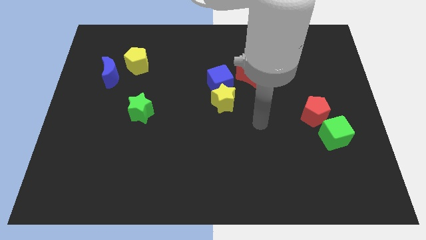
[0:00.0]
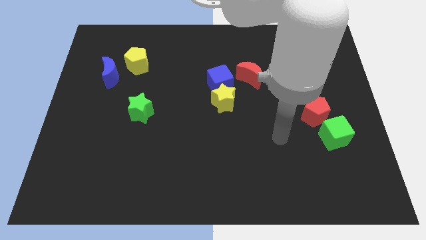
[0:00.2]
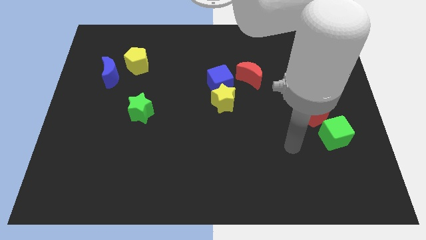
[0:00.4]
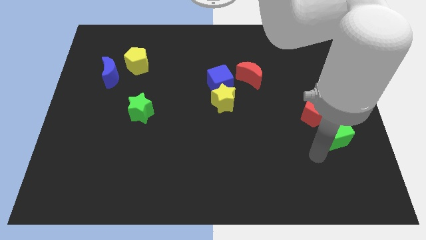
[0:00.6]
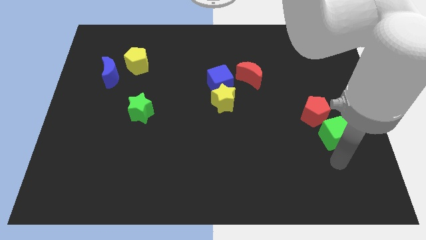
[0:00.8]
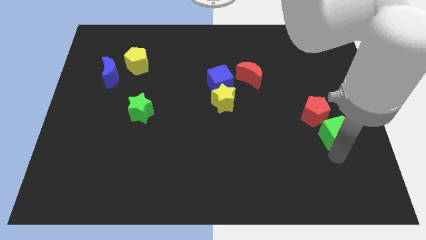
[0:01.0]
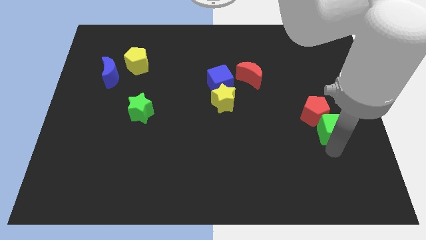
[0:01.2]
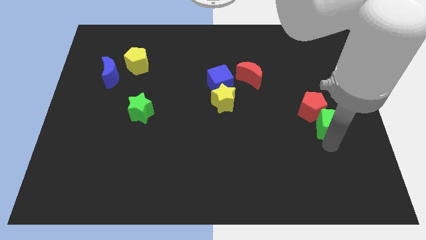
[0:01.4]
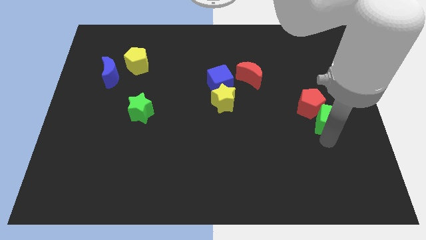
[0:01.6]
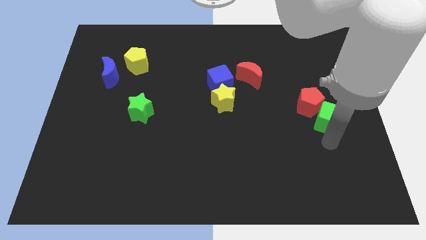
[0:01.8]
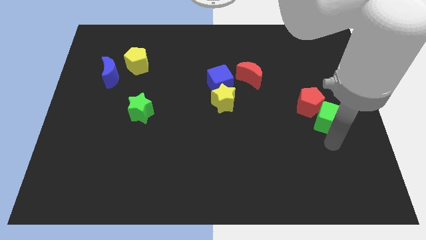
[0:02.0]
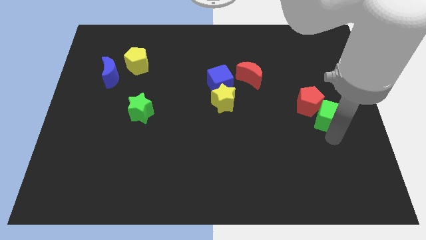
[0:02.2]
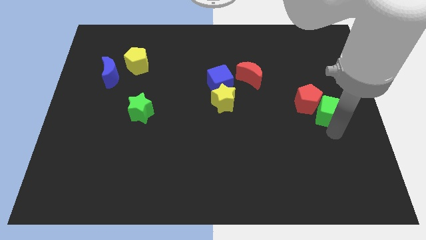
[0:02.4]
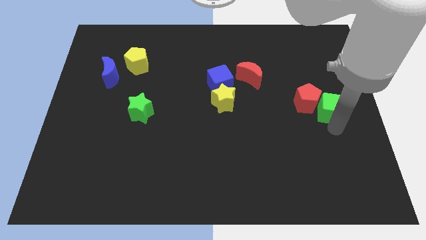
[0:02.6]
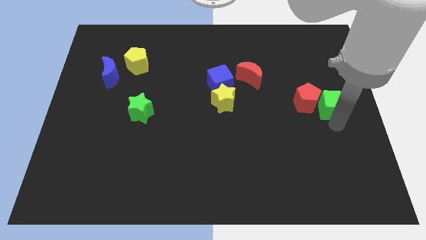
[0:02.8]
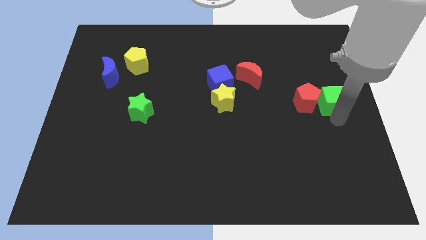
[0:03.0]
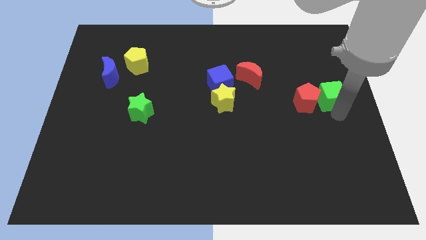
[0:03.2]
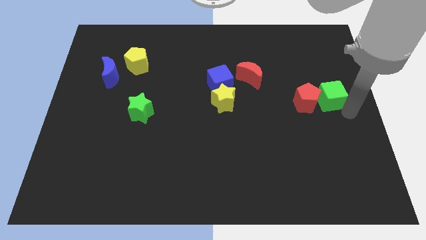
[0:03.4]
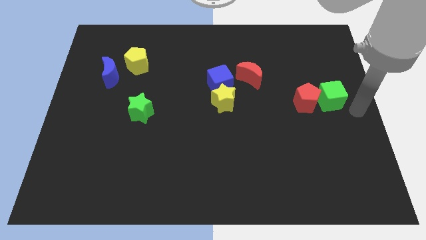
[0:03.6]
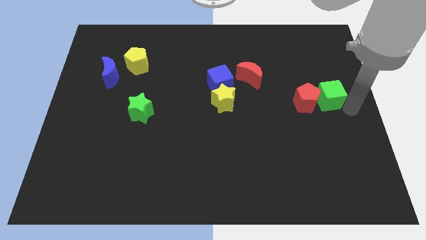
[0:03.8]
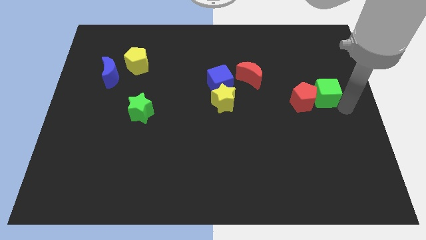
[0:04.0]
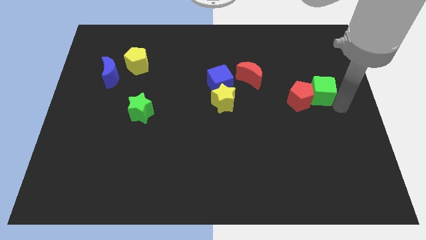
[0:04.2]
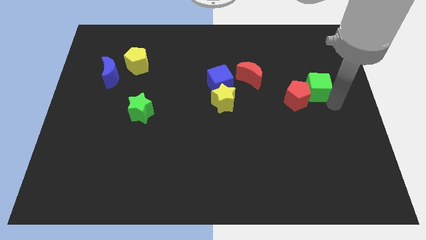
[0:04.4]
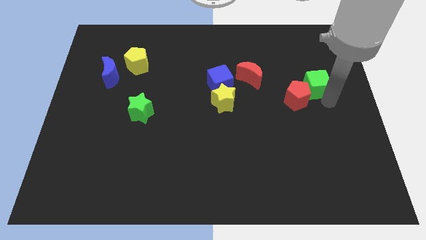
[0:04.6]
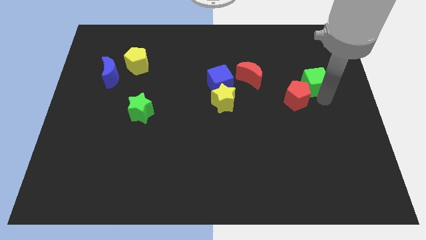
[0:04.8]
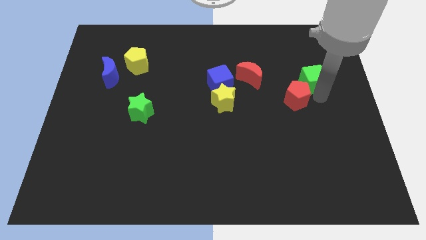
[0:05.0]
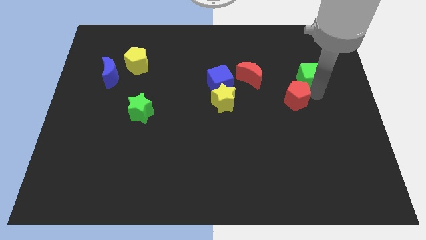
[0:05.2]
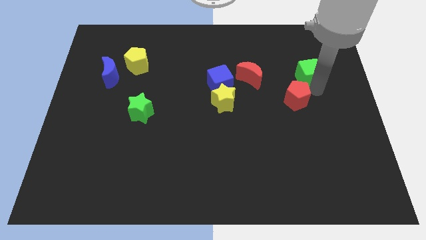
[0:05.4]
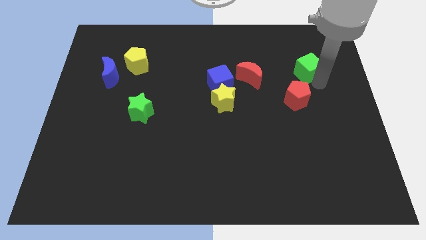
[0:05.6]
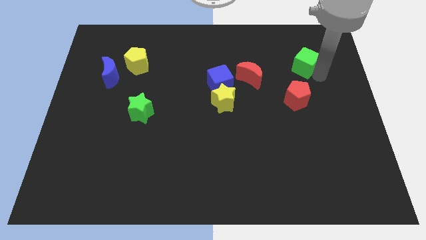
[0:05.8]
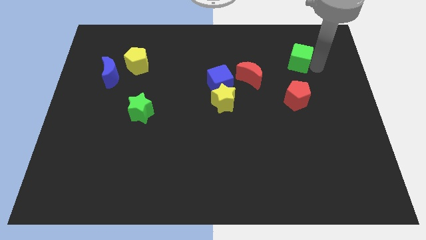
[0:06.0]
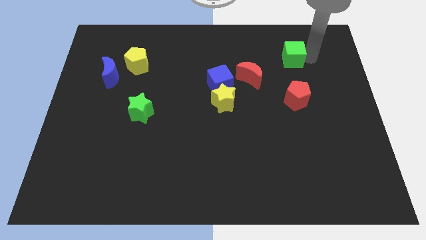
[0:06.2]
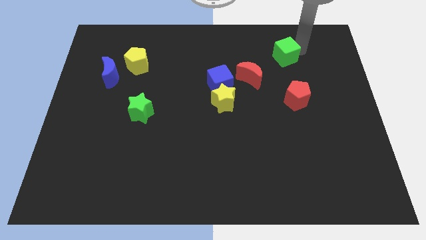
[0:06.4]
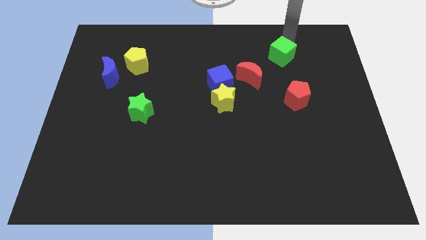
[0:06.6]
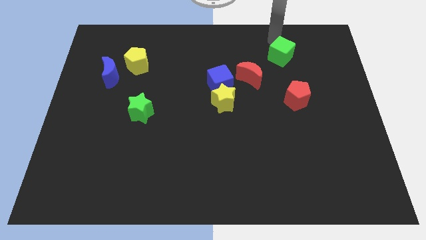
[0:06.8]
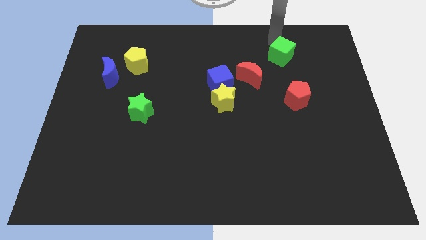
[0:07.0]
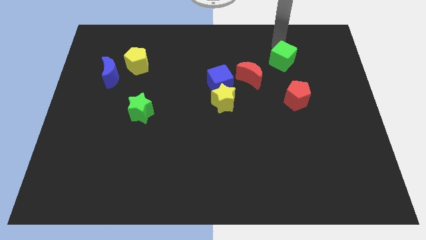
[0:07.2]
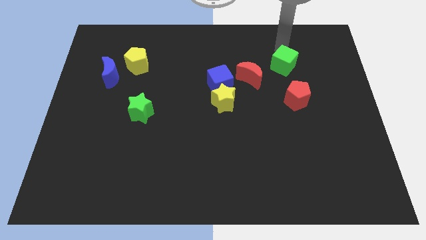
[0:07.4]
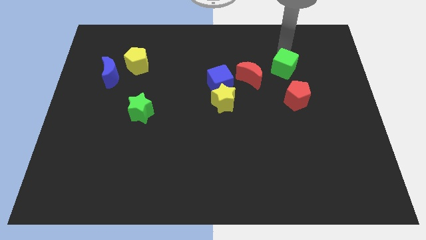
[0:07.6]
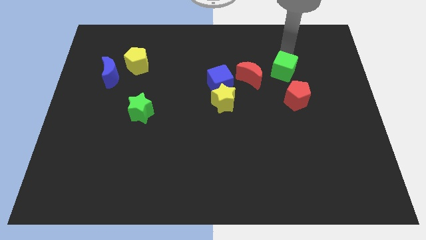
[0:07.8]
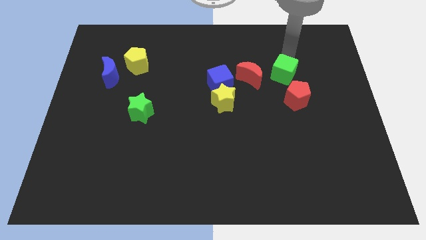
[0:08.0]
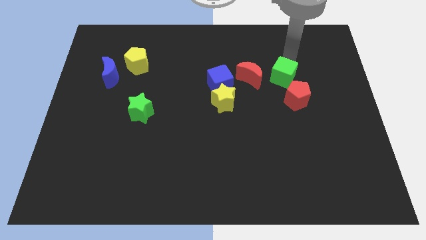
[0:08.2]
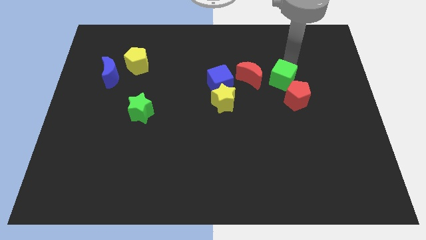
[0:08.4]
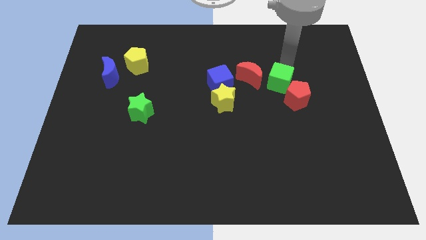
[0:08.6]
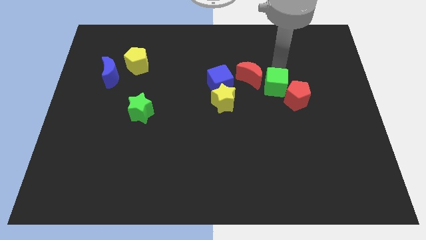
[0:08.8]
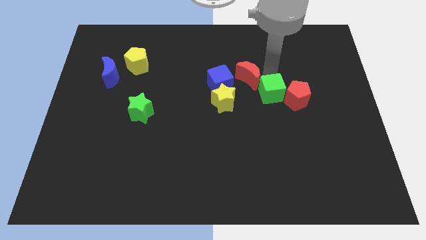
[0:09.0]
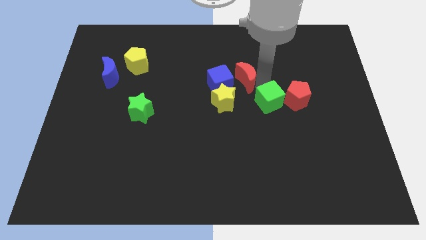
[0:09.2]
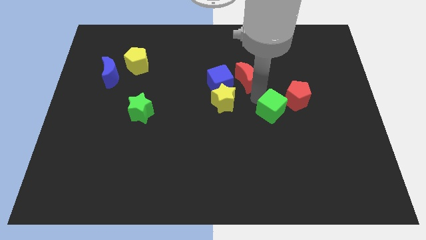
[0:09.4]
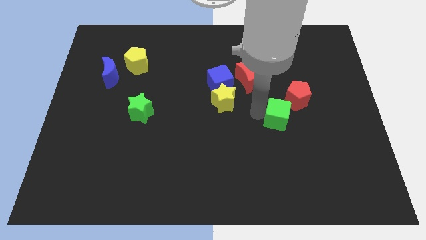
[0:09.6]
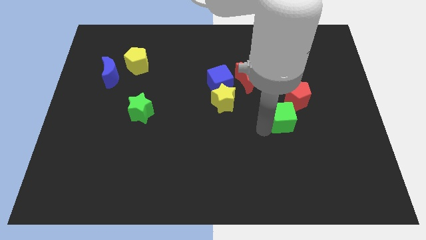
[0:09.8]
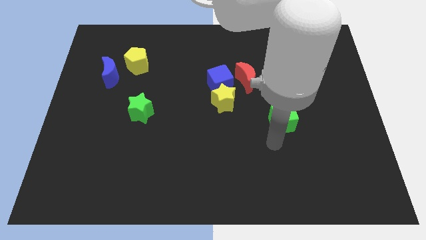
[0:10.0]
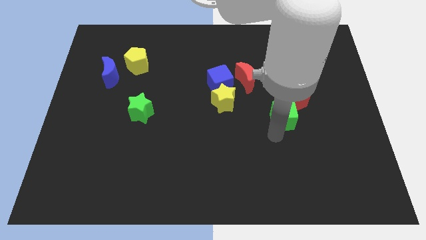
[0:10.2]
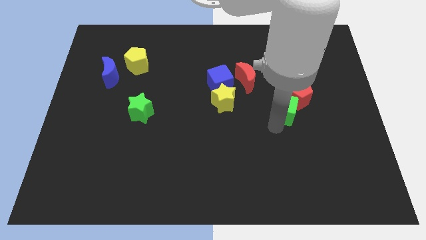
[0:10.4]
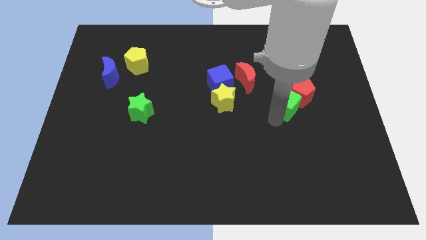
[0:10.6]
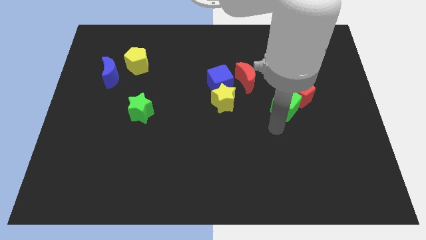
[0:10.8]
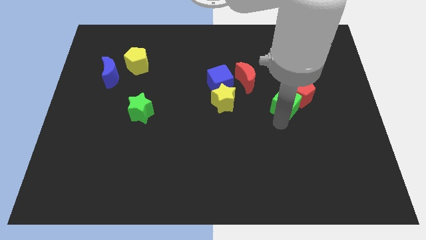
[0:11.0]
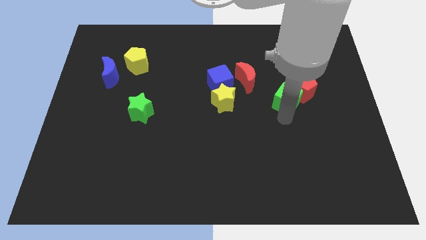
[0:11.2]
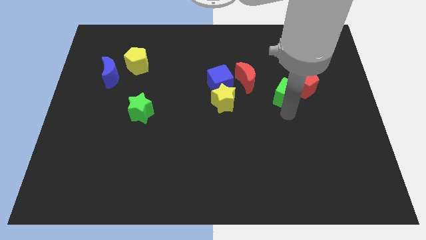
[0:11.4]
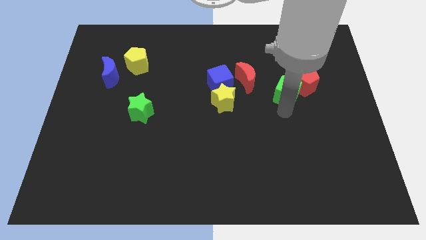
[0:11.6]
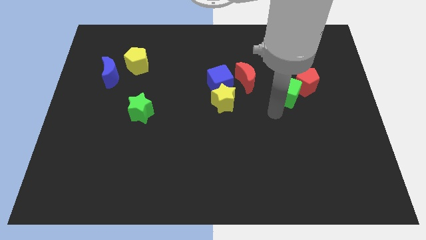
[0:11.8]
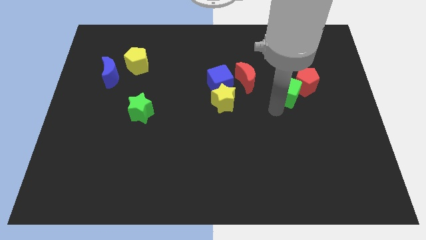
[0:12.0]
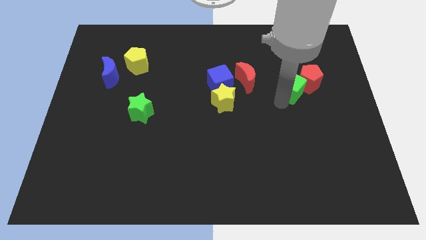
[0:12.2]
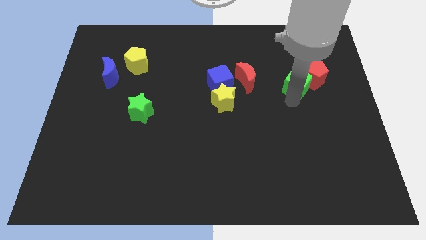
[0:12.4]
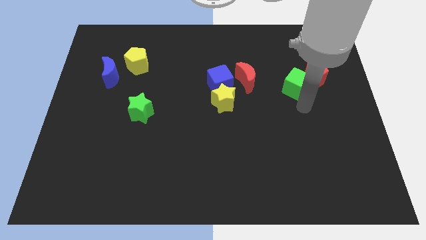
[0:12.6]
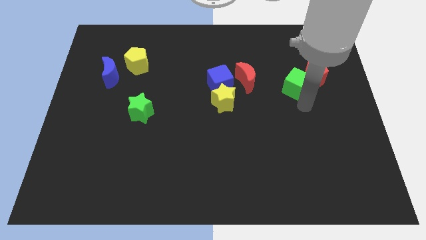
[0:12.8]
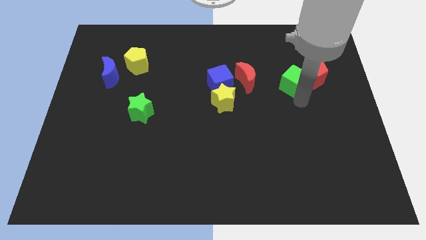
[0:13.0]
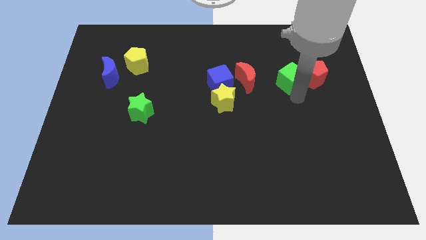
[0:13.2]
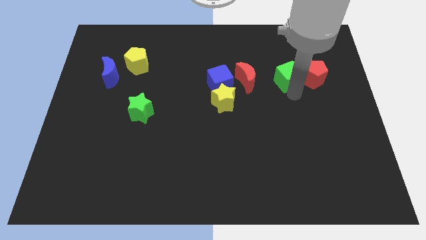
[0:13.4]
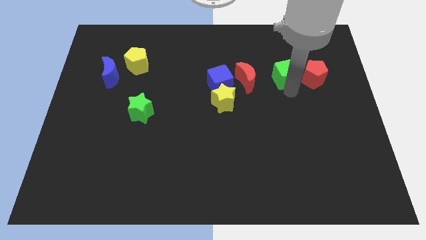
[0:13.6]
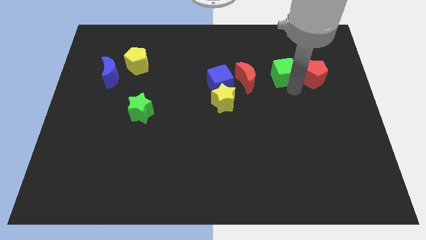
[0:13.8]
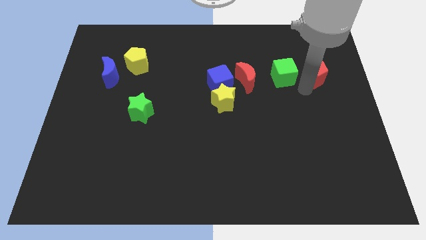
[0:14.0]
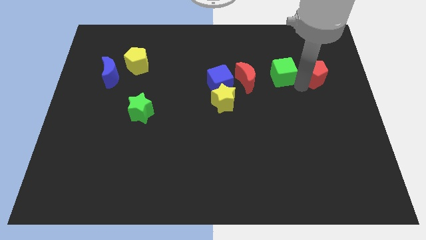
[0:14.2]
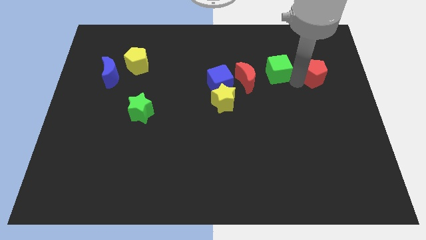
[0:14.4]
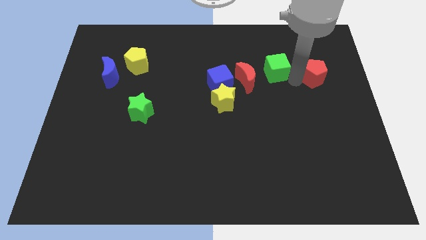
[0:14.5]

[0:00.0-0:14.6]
move the green cube up and then to the left

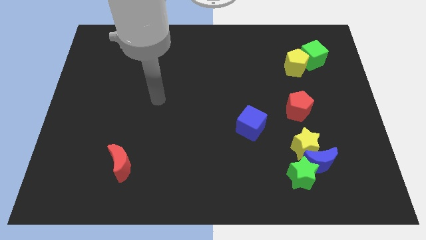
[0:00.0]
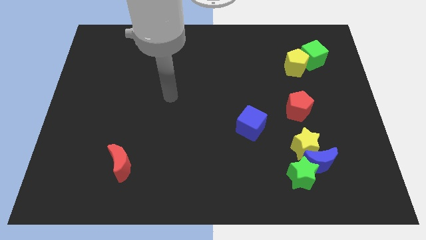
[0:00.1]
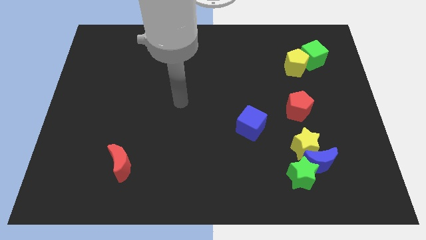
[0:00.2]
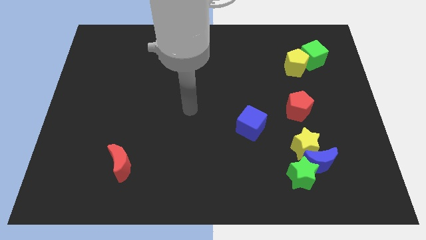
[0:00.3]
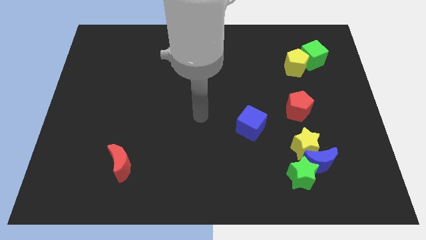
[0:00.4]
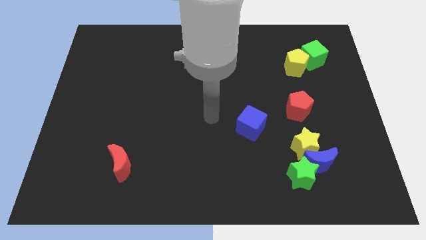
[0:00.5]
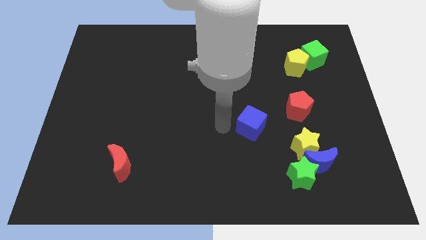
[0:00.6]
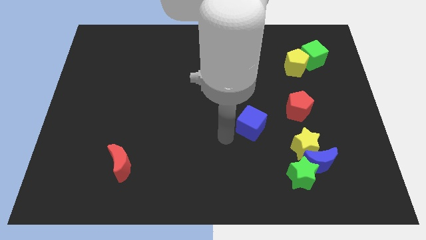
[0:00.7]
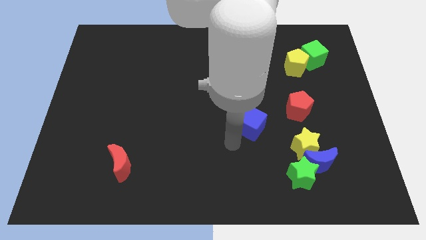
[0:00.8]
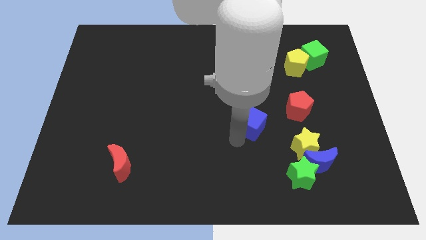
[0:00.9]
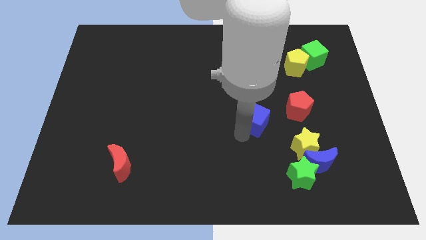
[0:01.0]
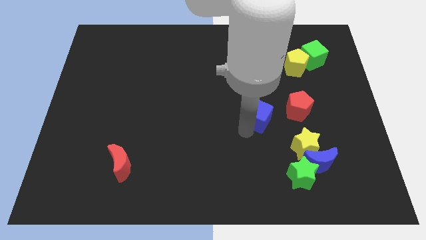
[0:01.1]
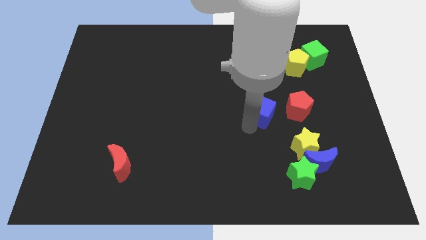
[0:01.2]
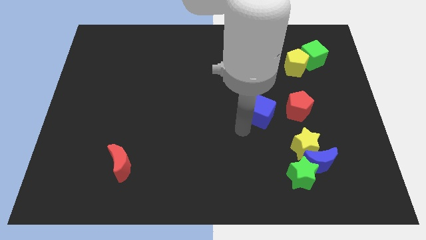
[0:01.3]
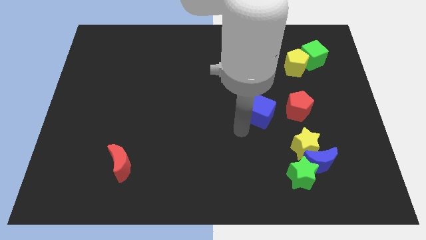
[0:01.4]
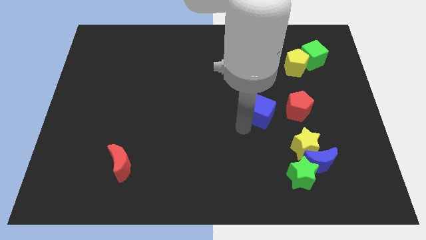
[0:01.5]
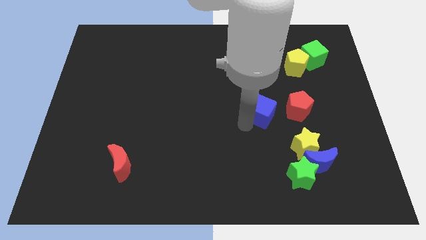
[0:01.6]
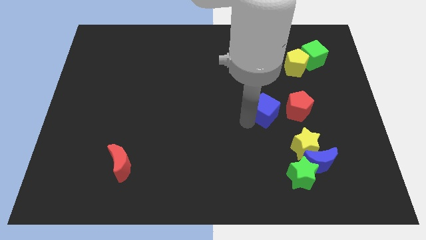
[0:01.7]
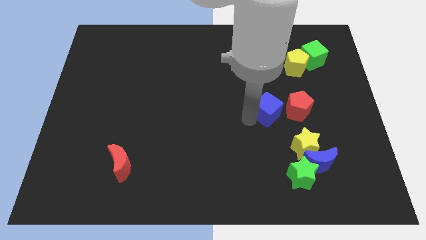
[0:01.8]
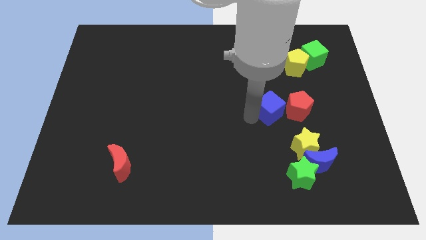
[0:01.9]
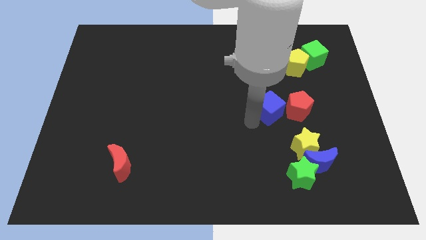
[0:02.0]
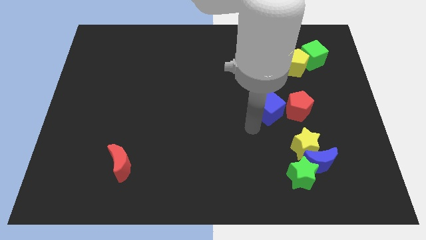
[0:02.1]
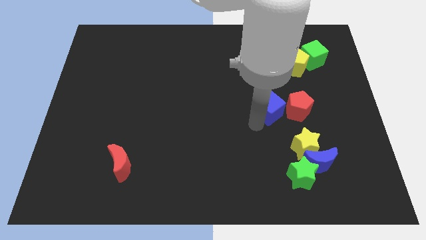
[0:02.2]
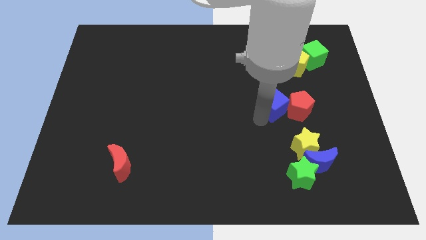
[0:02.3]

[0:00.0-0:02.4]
move the blue cube upwards and right diagonally a little bit
